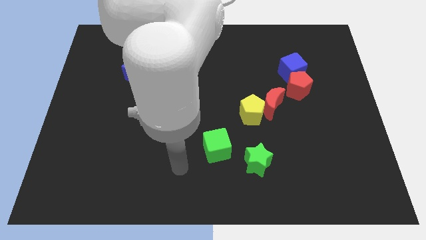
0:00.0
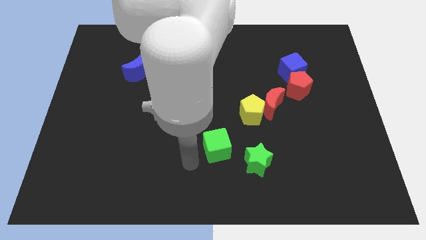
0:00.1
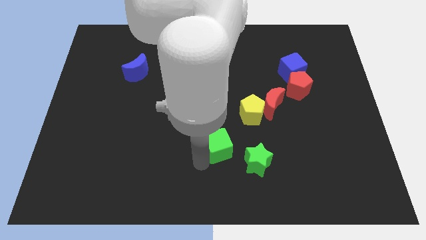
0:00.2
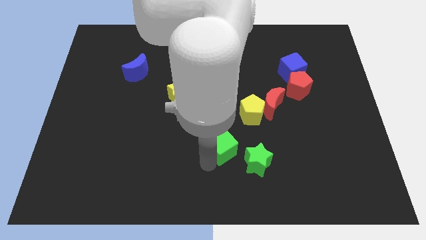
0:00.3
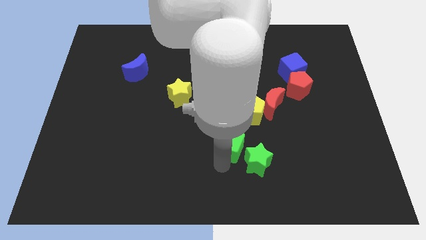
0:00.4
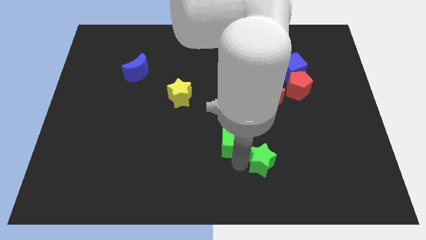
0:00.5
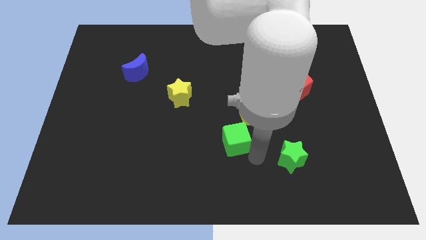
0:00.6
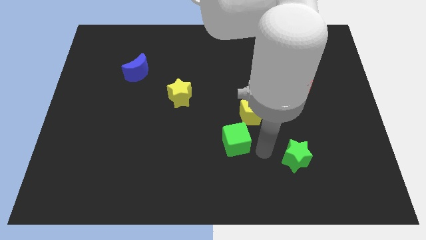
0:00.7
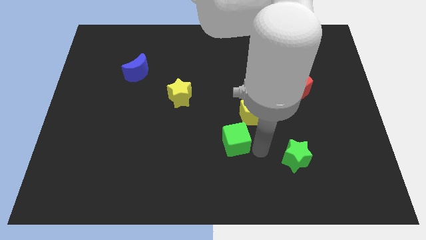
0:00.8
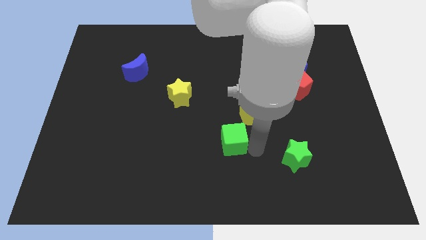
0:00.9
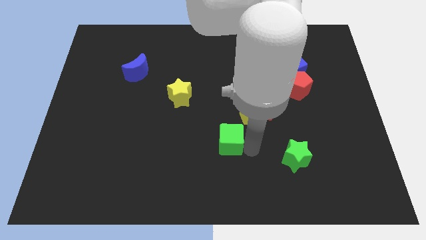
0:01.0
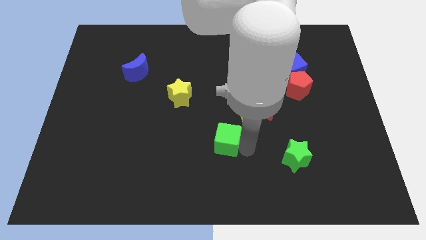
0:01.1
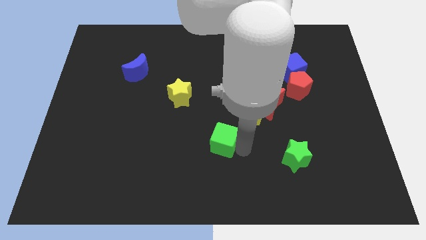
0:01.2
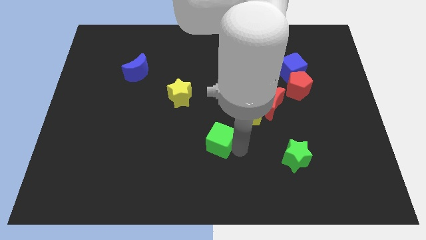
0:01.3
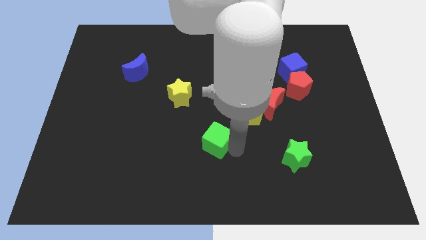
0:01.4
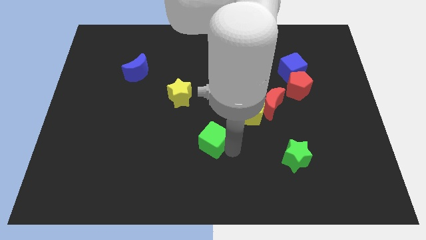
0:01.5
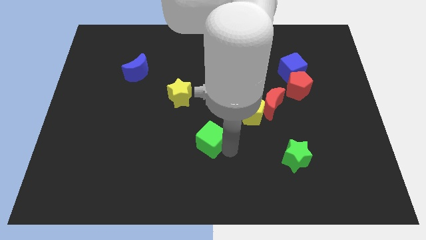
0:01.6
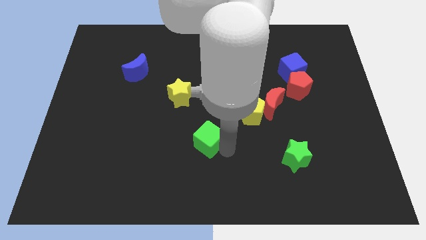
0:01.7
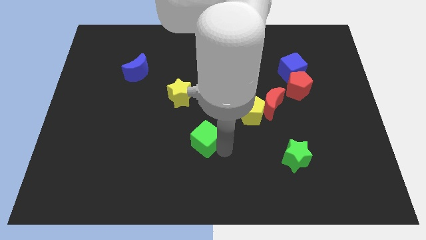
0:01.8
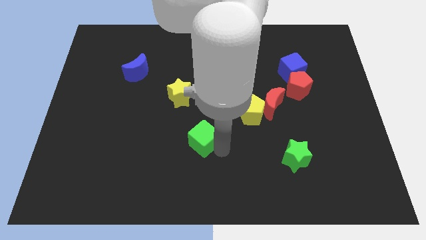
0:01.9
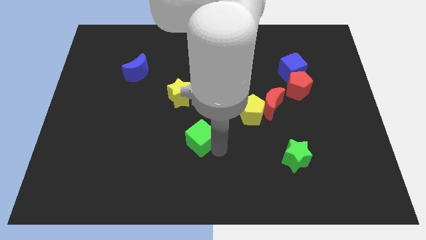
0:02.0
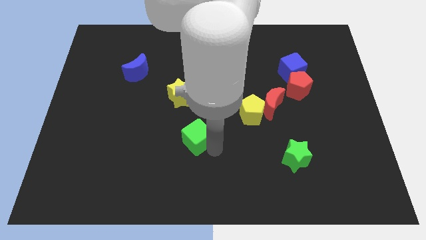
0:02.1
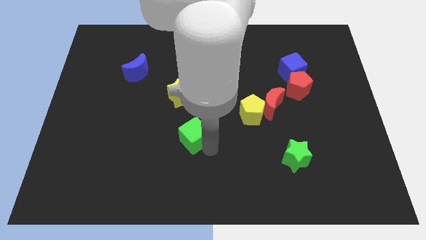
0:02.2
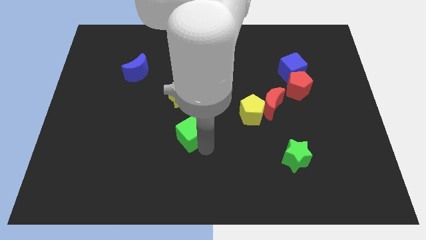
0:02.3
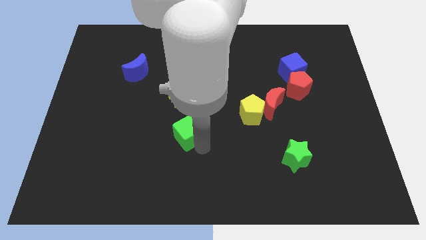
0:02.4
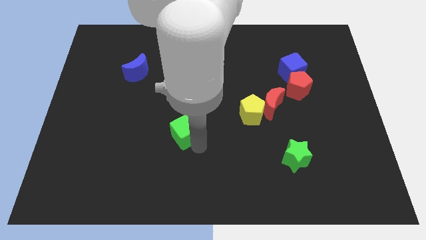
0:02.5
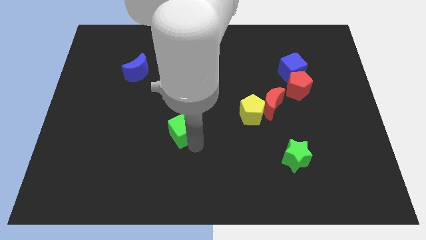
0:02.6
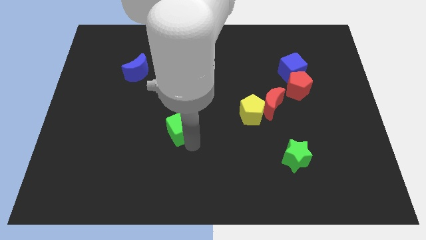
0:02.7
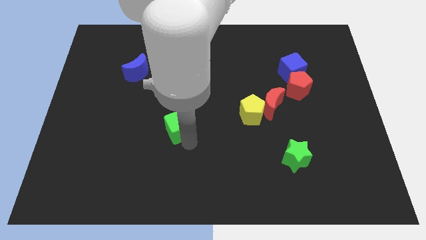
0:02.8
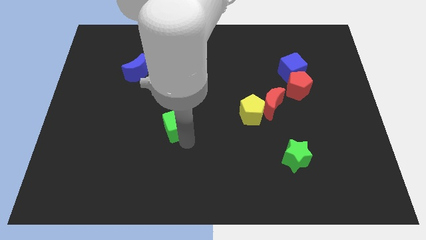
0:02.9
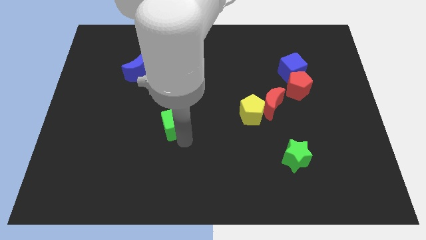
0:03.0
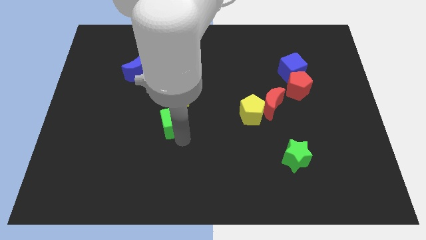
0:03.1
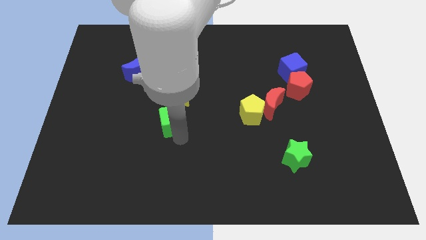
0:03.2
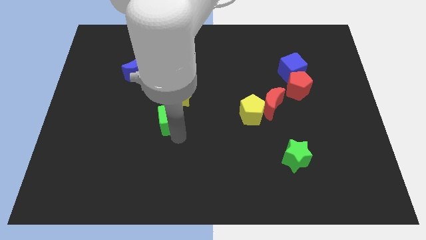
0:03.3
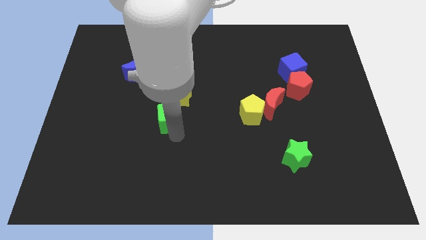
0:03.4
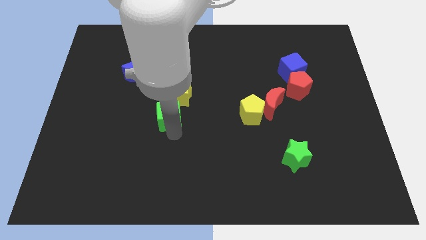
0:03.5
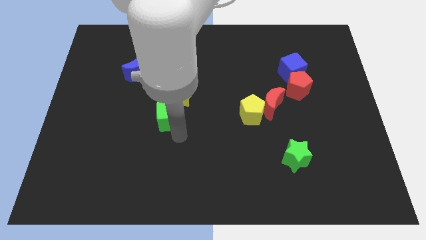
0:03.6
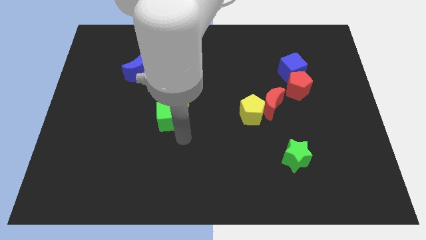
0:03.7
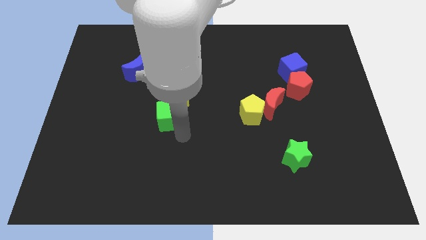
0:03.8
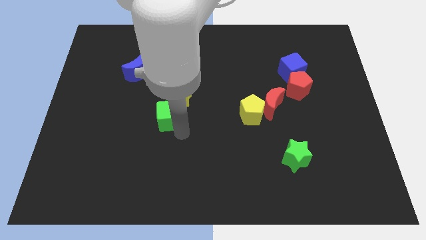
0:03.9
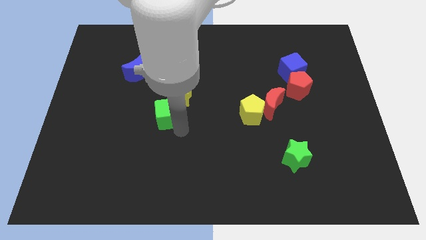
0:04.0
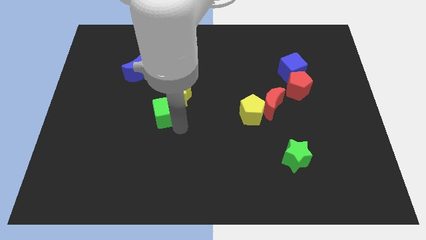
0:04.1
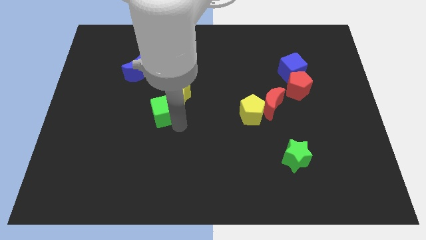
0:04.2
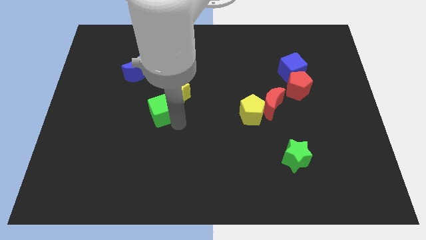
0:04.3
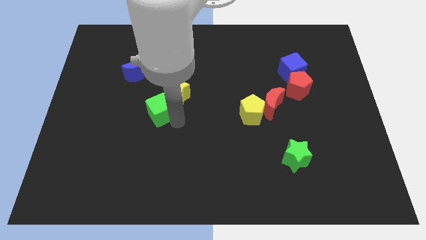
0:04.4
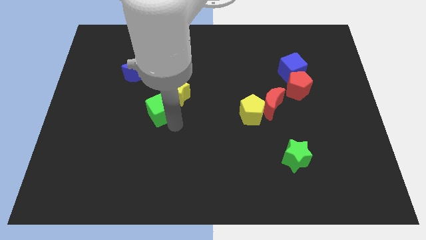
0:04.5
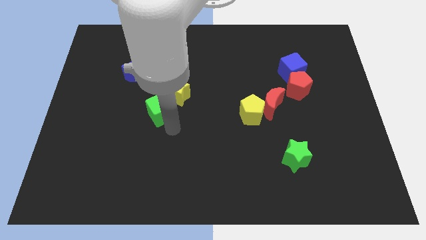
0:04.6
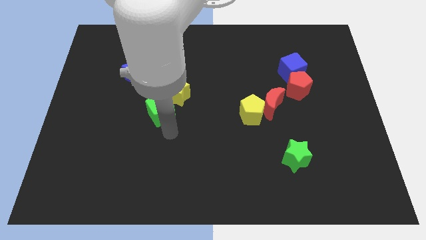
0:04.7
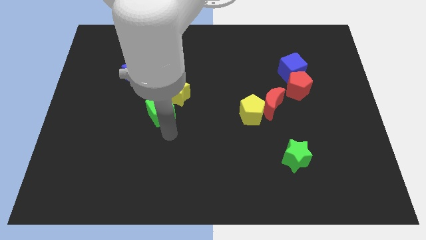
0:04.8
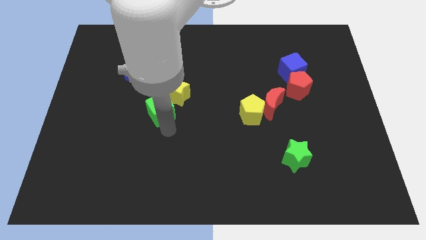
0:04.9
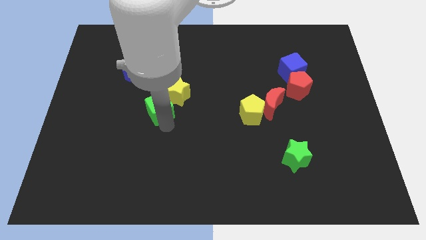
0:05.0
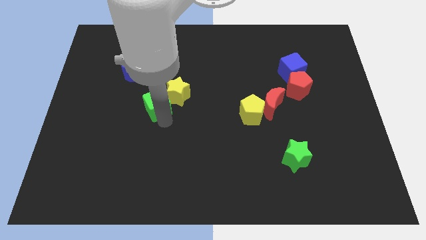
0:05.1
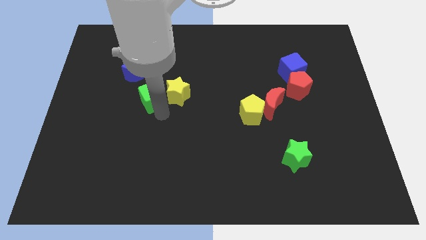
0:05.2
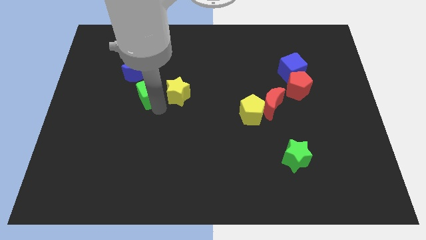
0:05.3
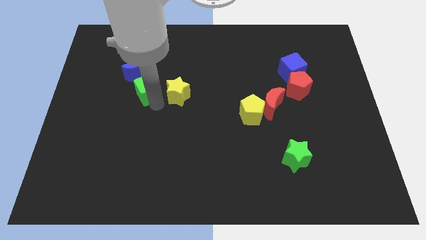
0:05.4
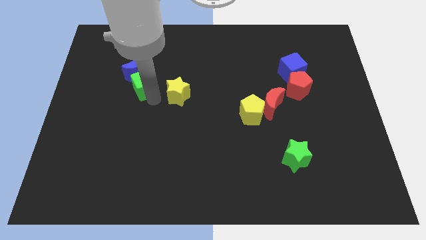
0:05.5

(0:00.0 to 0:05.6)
put the green cube next to the blue moon

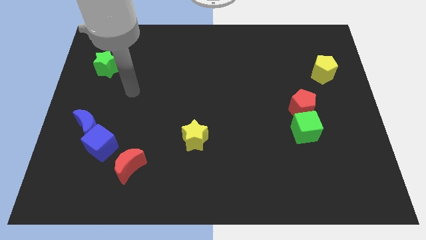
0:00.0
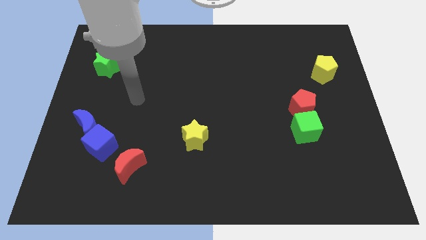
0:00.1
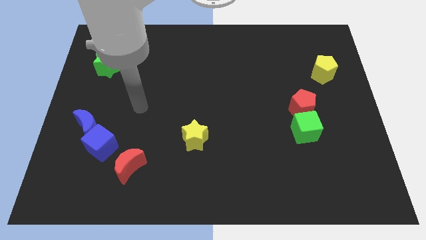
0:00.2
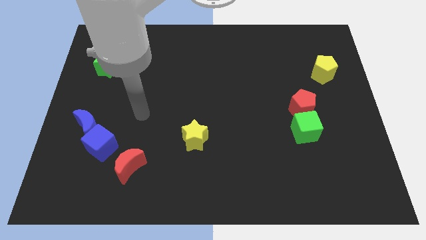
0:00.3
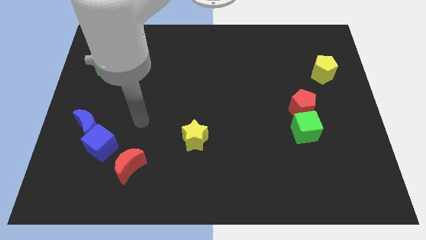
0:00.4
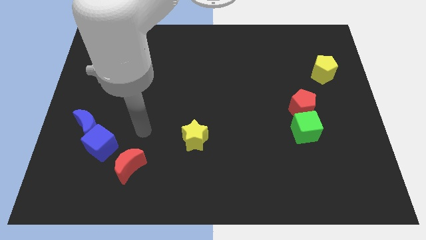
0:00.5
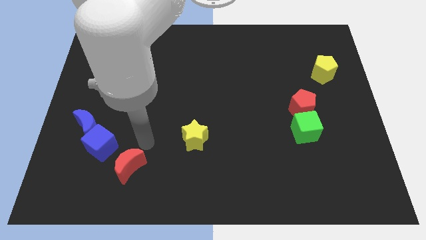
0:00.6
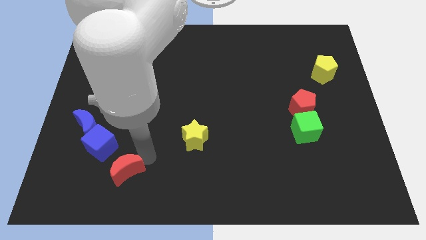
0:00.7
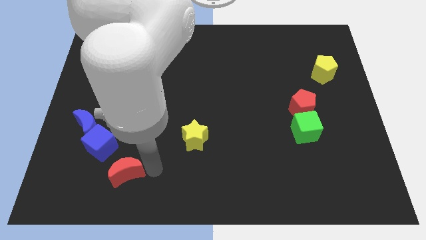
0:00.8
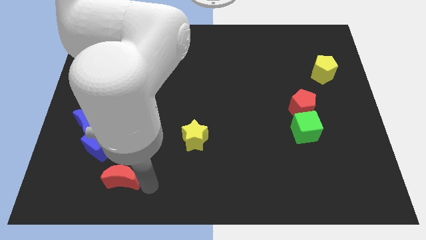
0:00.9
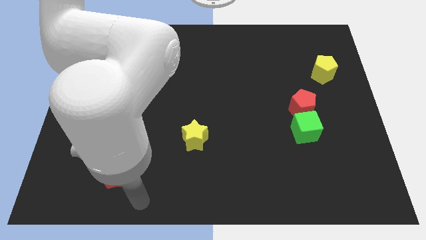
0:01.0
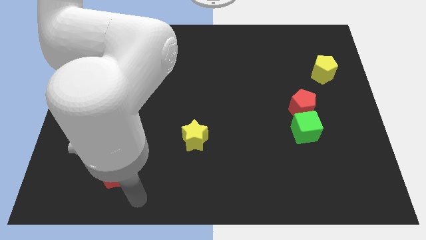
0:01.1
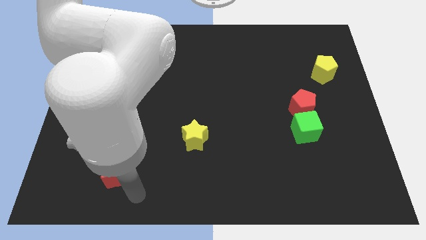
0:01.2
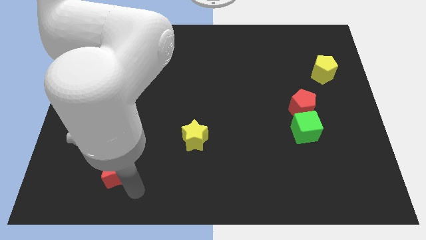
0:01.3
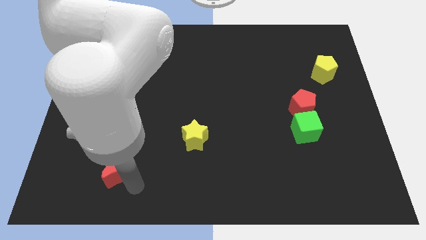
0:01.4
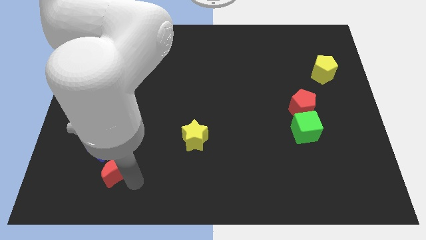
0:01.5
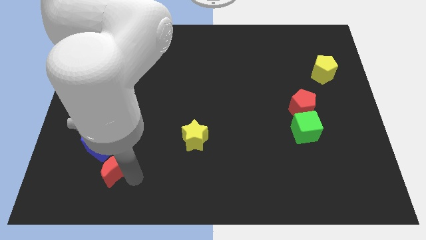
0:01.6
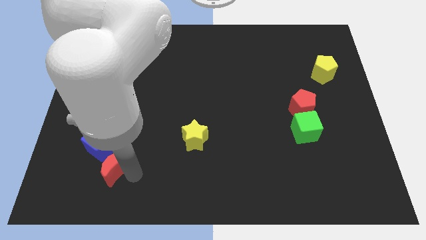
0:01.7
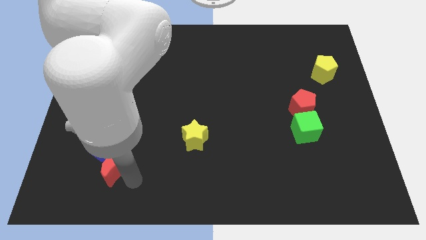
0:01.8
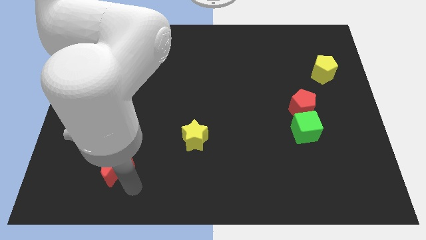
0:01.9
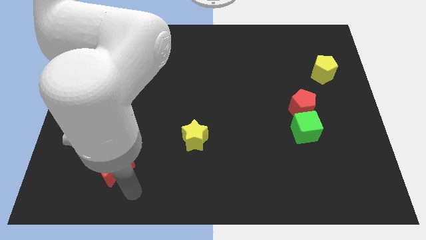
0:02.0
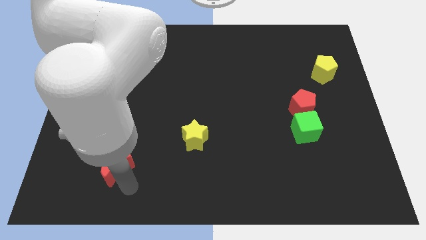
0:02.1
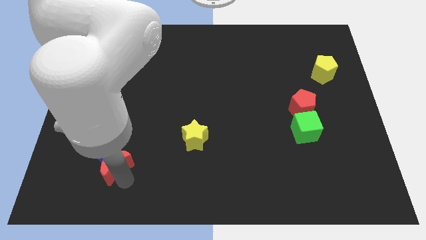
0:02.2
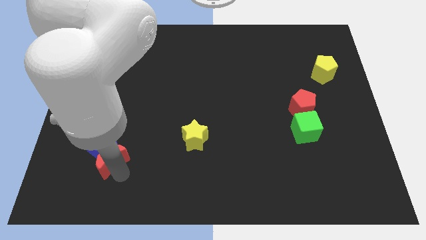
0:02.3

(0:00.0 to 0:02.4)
push the red moon next to the blue cube

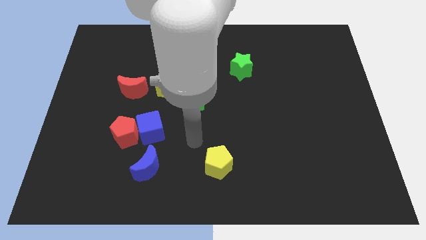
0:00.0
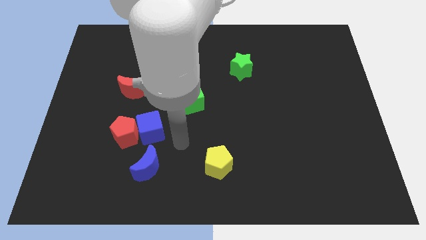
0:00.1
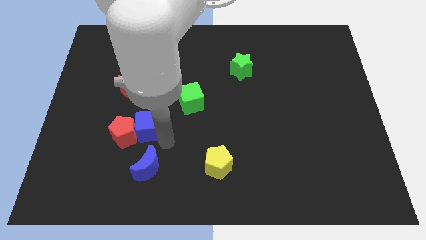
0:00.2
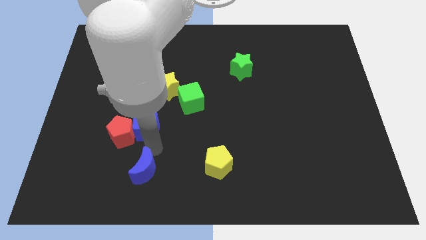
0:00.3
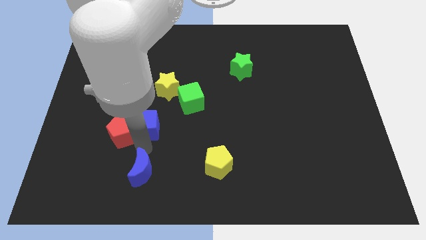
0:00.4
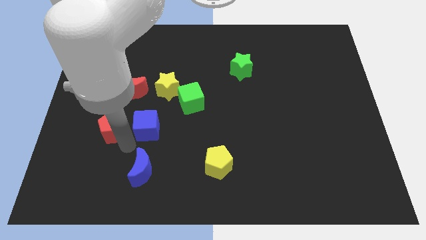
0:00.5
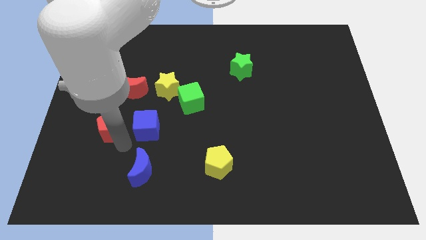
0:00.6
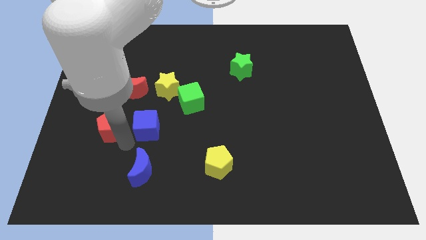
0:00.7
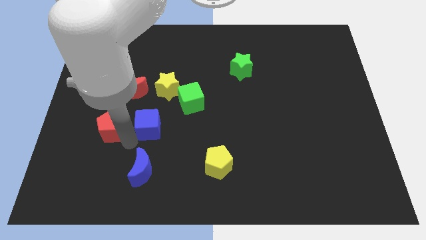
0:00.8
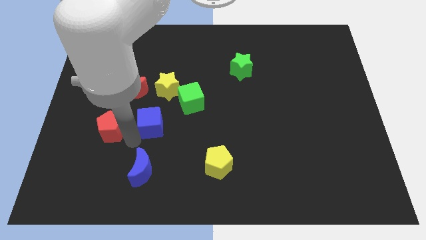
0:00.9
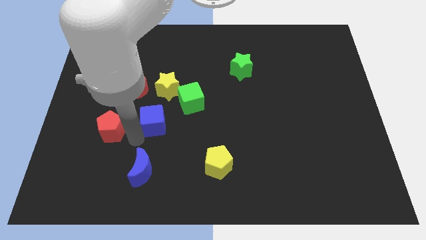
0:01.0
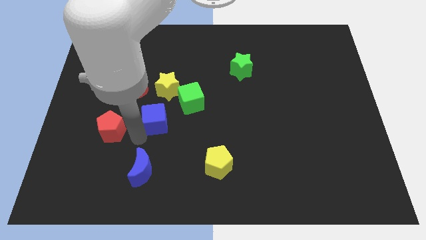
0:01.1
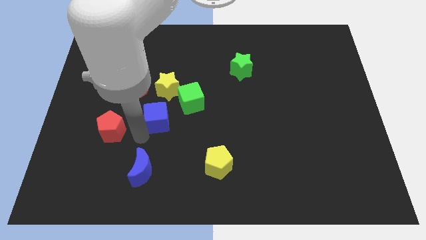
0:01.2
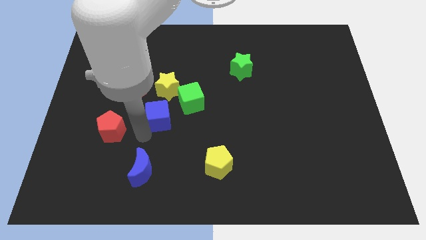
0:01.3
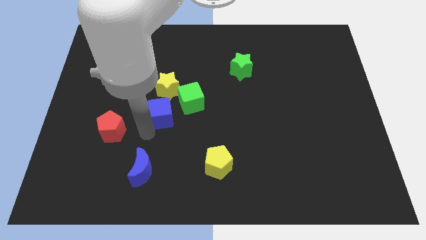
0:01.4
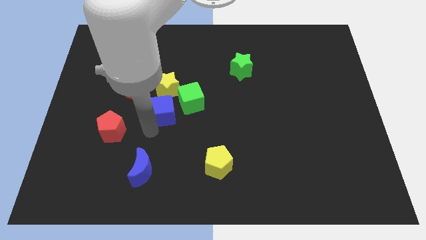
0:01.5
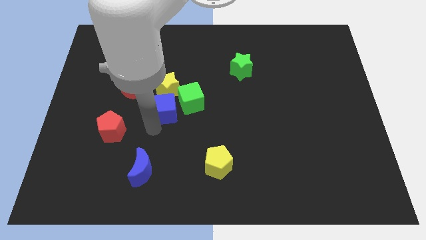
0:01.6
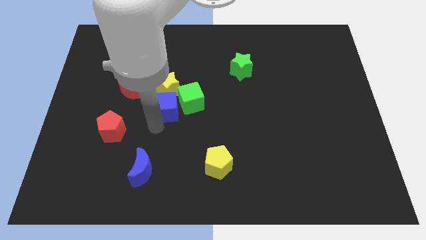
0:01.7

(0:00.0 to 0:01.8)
move the blue cube to the green cube
